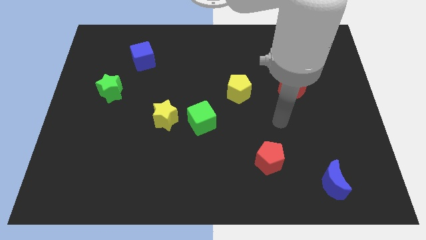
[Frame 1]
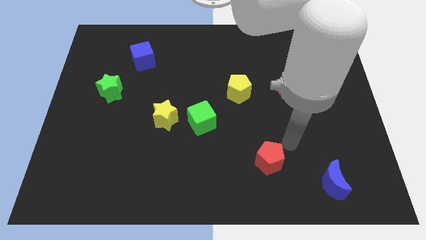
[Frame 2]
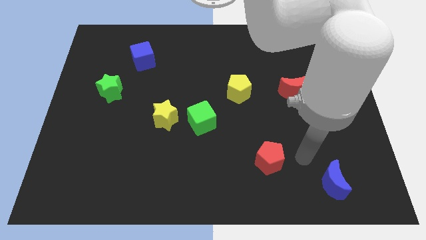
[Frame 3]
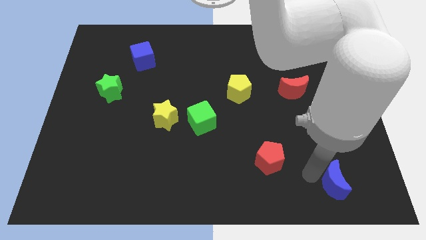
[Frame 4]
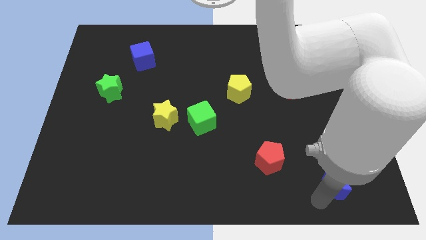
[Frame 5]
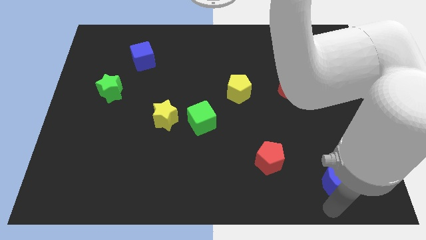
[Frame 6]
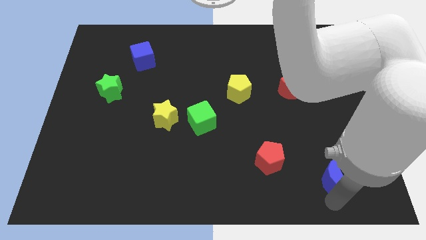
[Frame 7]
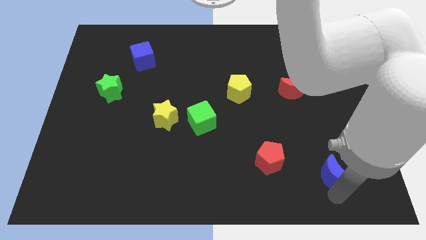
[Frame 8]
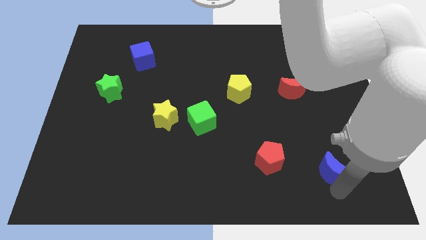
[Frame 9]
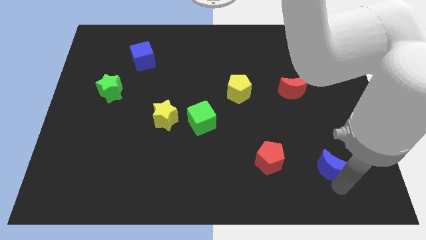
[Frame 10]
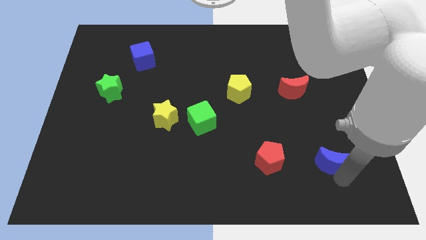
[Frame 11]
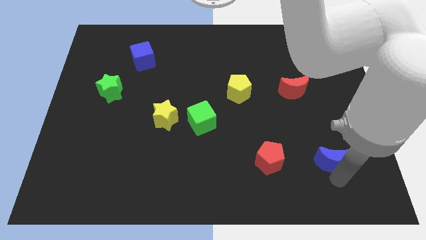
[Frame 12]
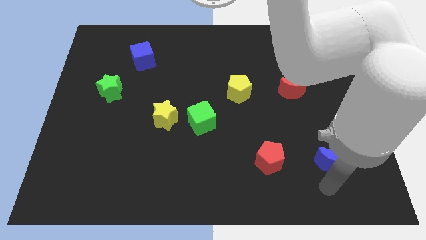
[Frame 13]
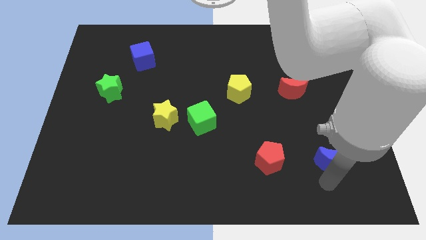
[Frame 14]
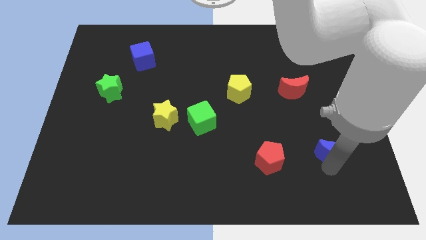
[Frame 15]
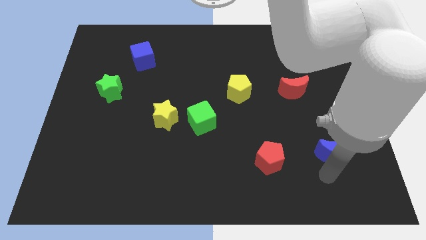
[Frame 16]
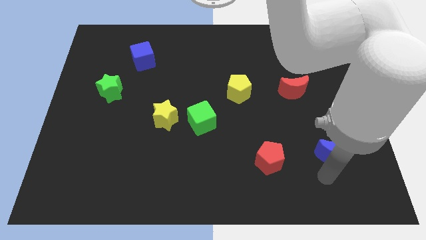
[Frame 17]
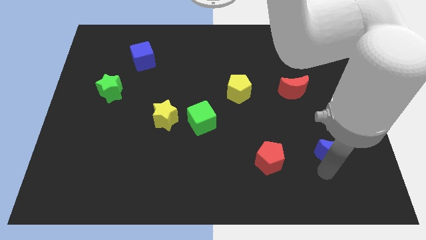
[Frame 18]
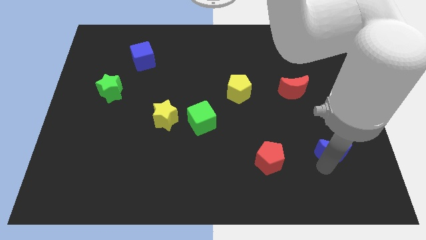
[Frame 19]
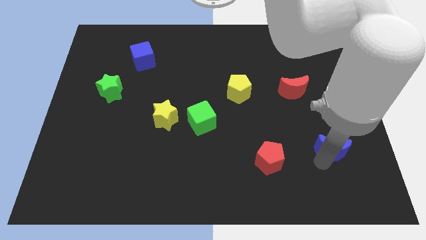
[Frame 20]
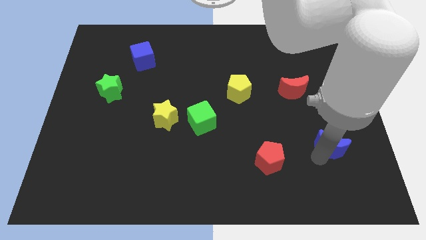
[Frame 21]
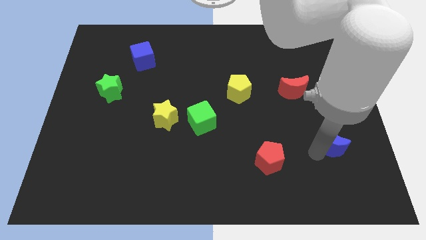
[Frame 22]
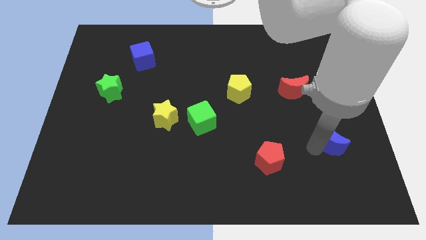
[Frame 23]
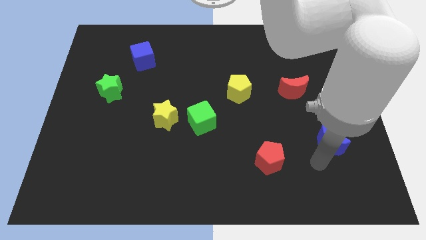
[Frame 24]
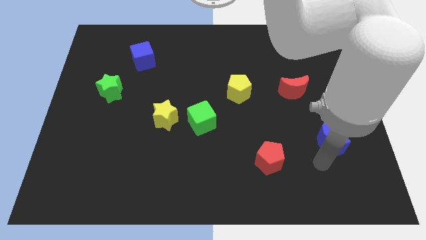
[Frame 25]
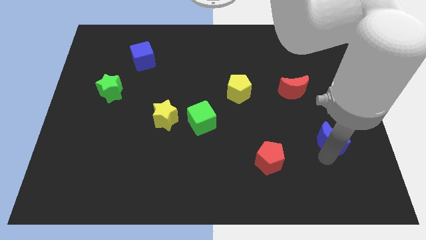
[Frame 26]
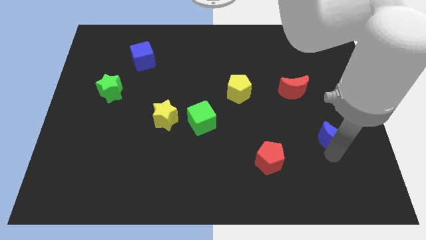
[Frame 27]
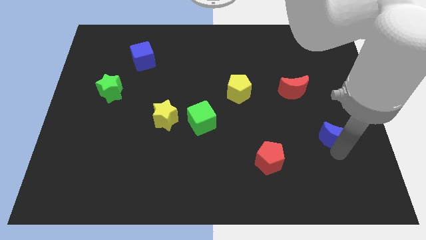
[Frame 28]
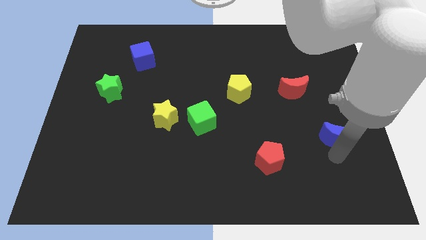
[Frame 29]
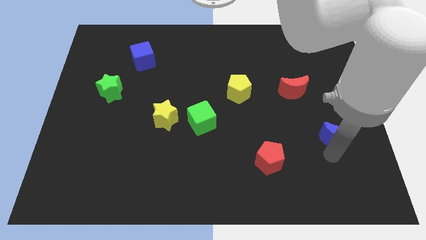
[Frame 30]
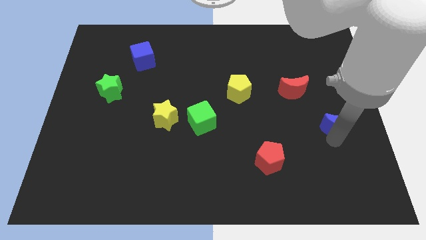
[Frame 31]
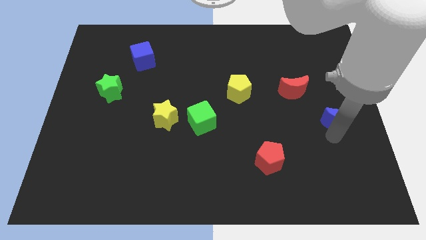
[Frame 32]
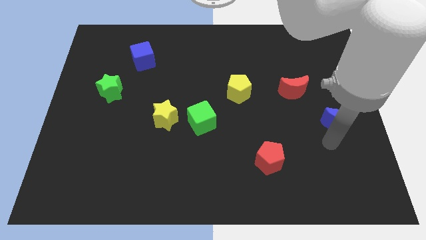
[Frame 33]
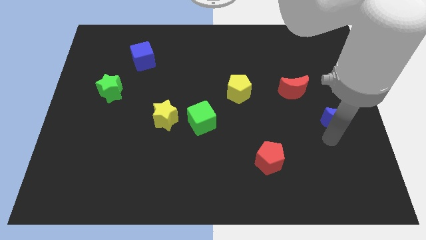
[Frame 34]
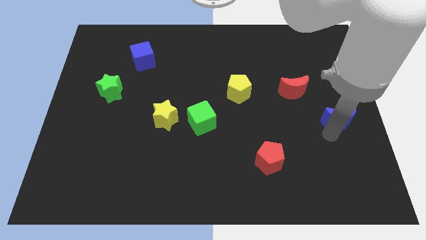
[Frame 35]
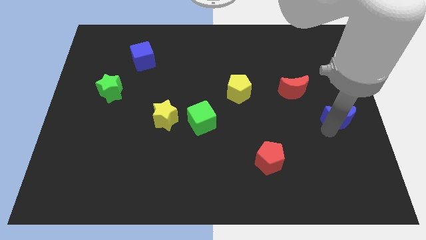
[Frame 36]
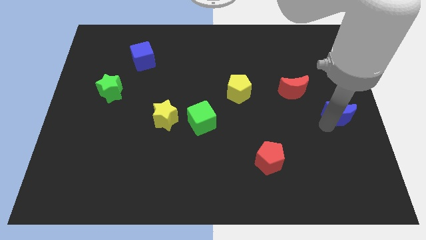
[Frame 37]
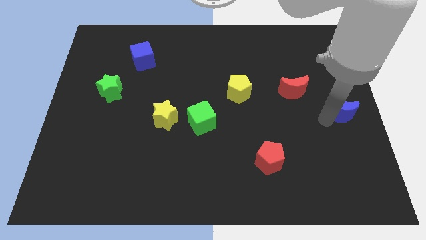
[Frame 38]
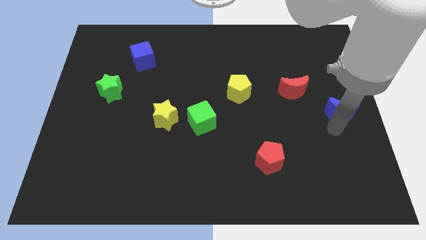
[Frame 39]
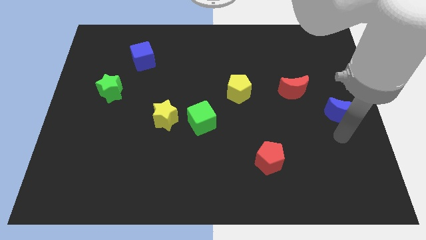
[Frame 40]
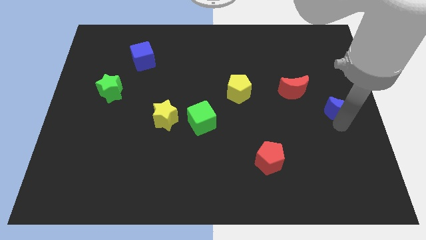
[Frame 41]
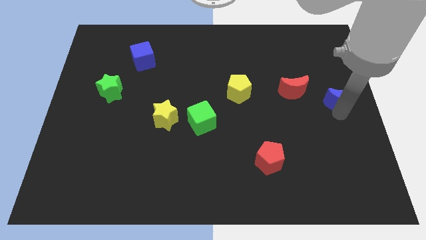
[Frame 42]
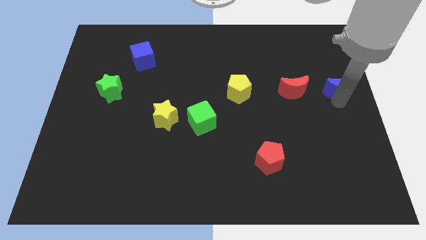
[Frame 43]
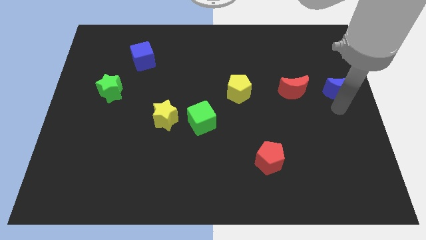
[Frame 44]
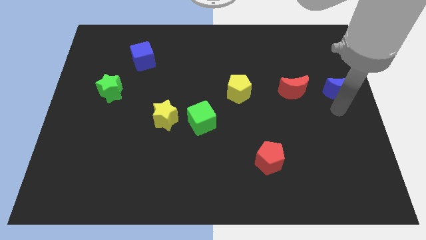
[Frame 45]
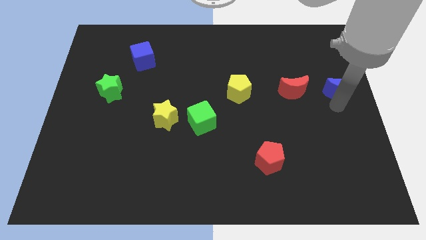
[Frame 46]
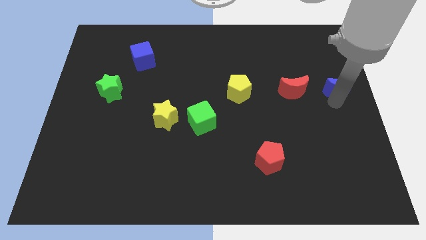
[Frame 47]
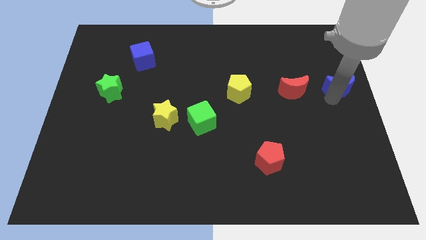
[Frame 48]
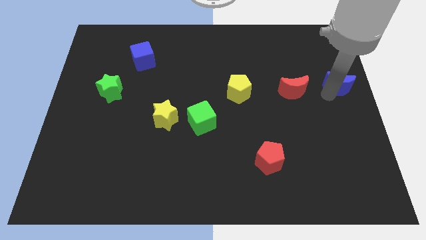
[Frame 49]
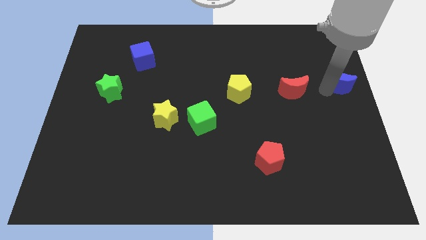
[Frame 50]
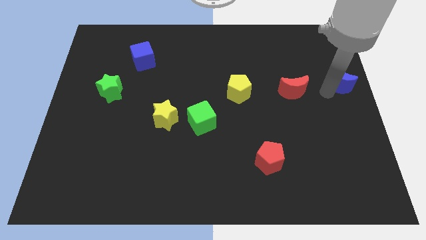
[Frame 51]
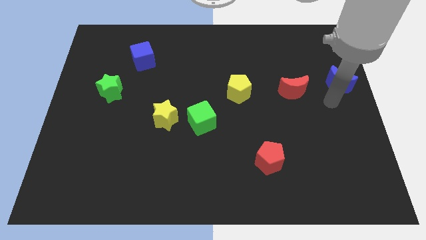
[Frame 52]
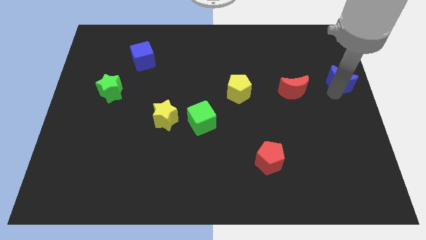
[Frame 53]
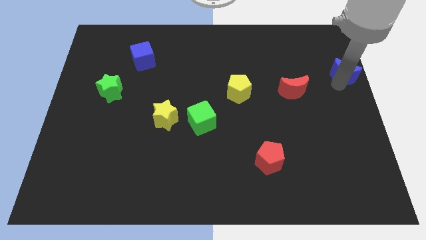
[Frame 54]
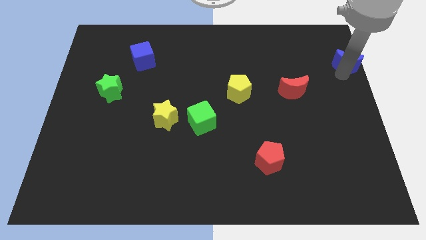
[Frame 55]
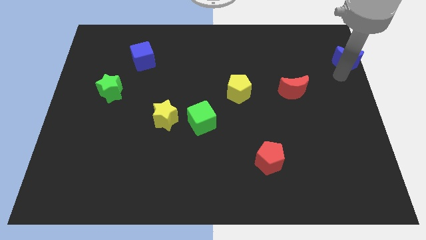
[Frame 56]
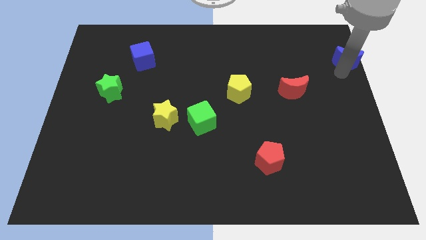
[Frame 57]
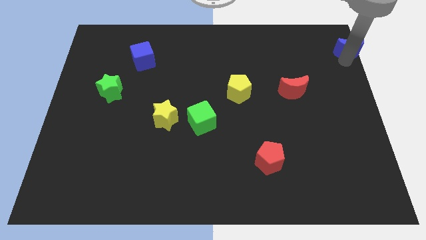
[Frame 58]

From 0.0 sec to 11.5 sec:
push the blue moon to the top right

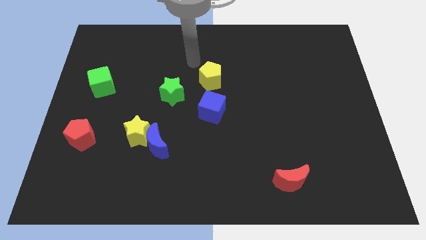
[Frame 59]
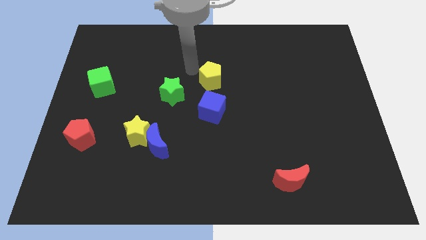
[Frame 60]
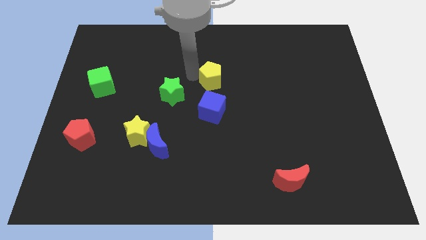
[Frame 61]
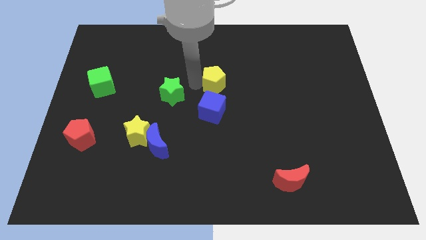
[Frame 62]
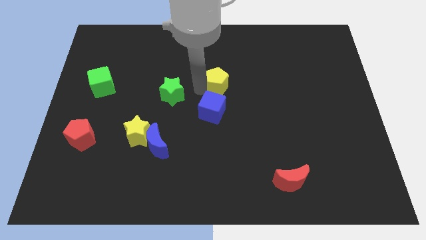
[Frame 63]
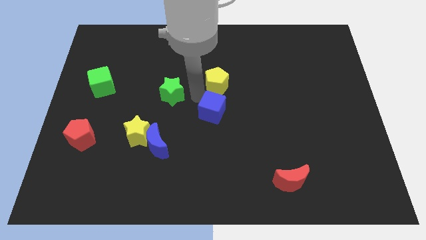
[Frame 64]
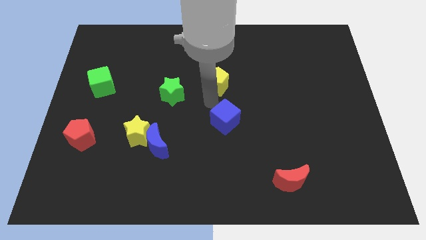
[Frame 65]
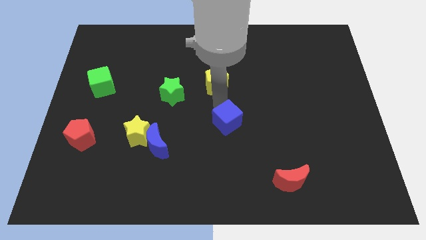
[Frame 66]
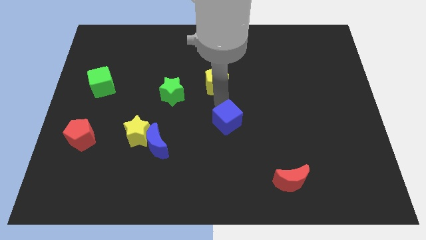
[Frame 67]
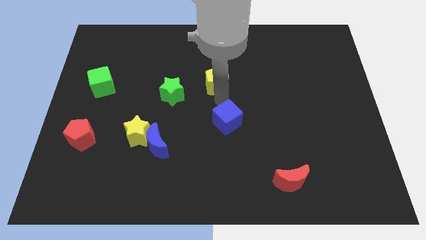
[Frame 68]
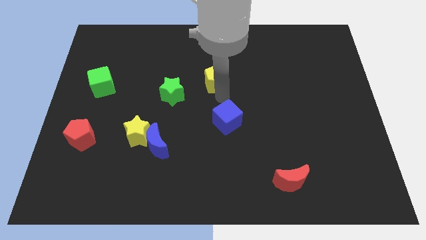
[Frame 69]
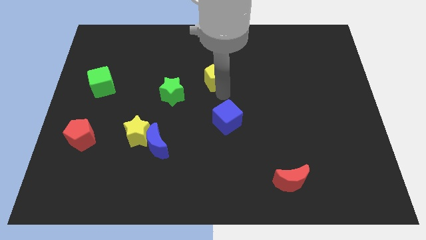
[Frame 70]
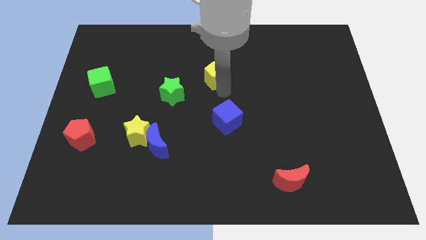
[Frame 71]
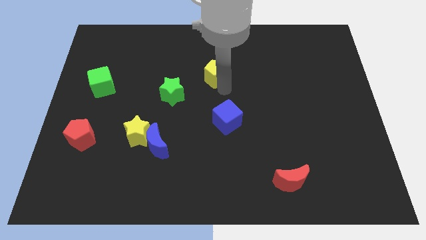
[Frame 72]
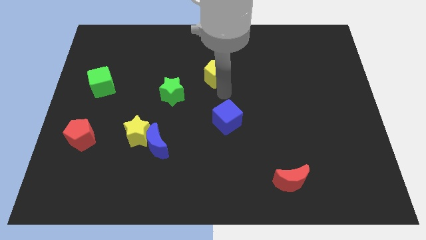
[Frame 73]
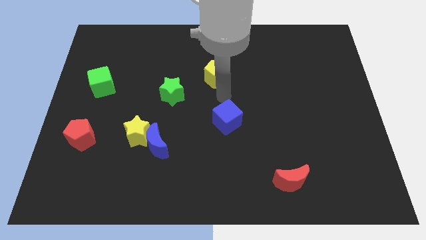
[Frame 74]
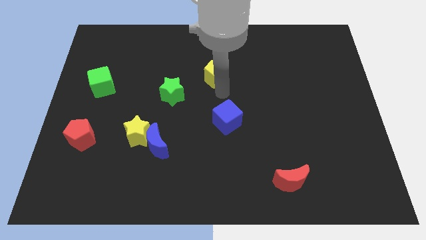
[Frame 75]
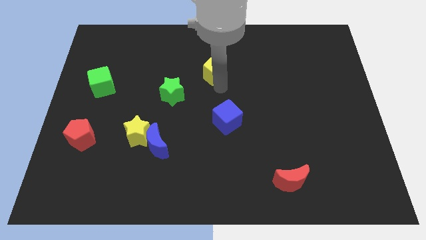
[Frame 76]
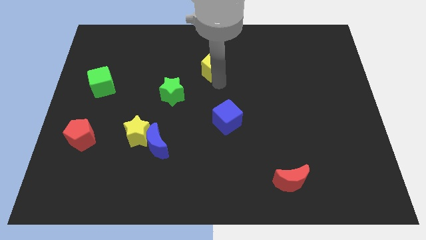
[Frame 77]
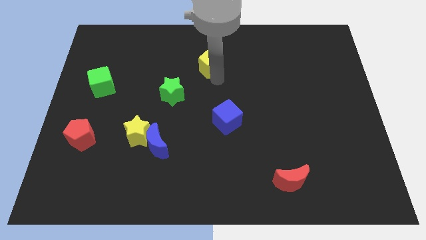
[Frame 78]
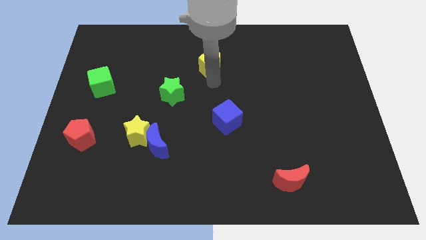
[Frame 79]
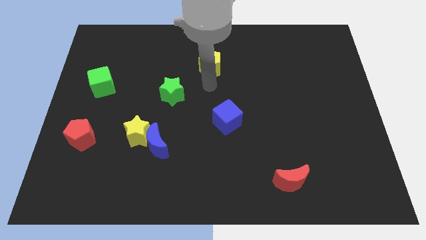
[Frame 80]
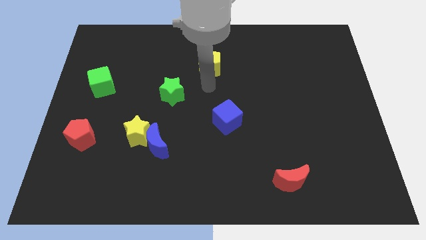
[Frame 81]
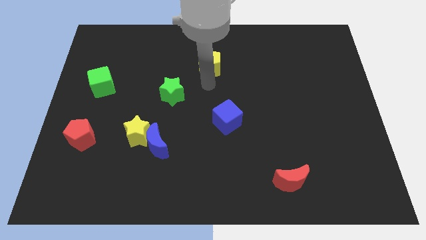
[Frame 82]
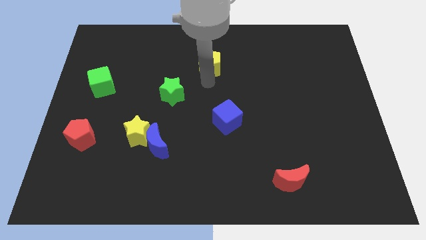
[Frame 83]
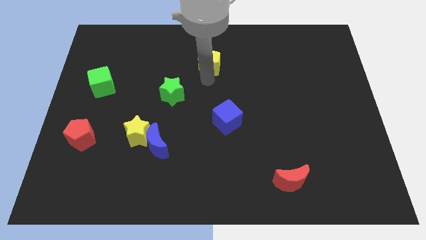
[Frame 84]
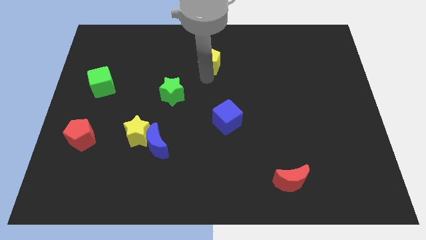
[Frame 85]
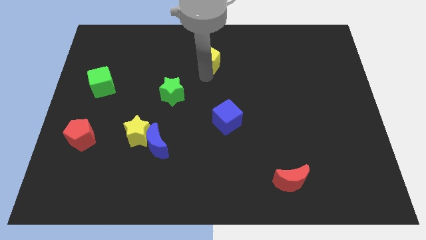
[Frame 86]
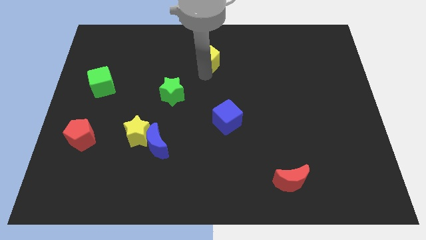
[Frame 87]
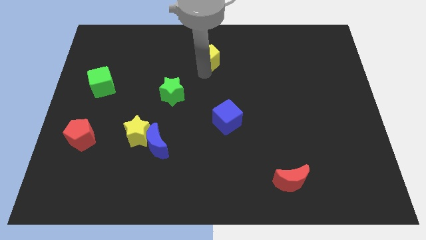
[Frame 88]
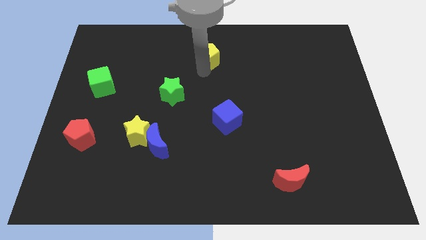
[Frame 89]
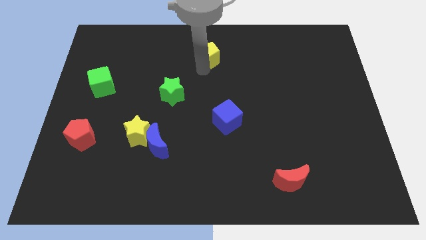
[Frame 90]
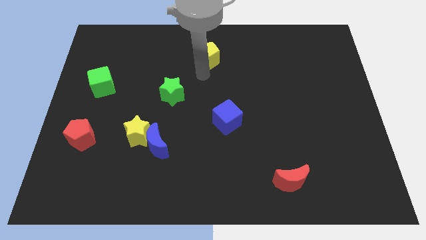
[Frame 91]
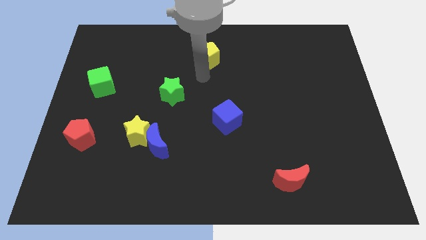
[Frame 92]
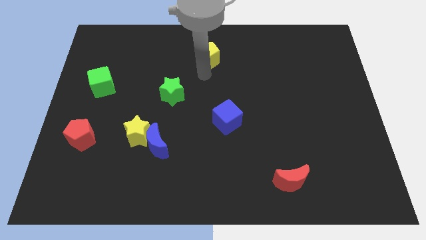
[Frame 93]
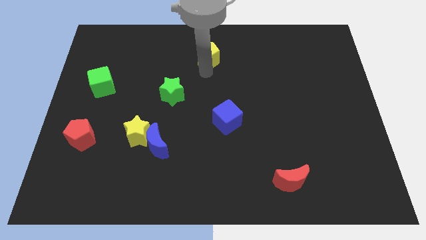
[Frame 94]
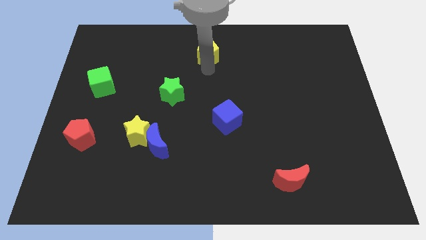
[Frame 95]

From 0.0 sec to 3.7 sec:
slide the yellow pentagon to the top
